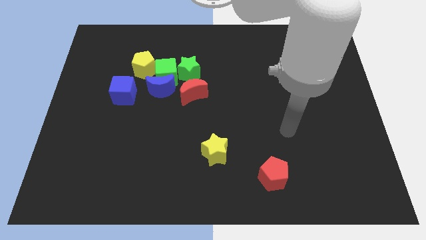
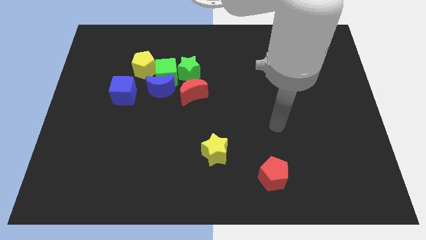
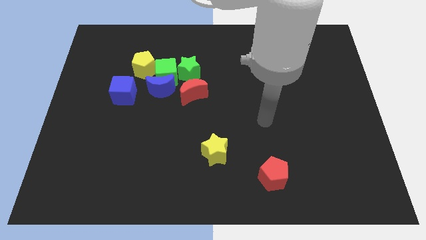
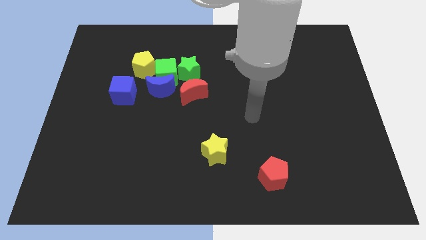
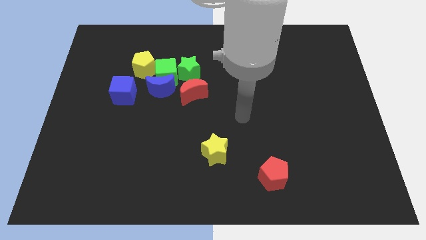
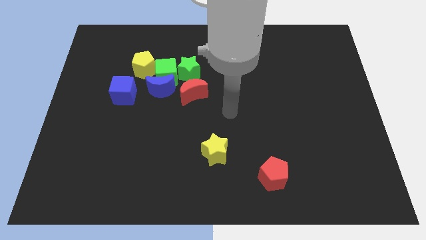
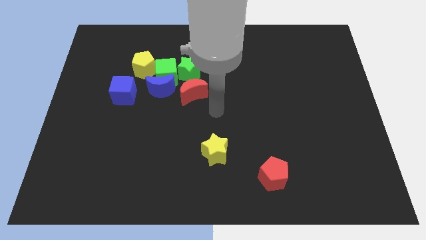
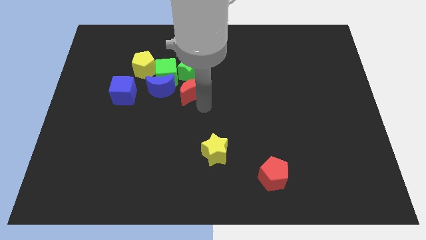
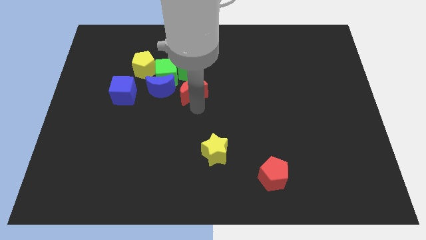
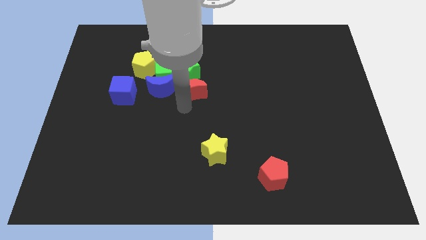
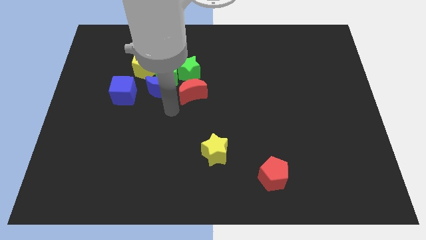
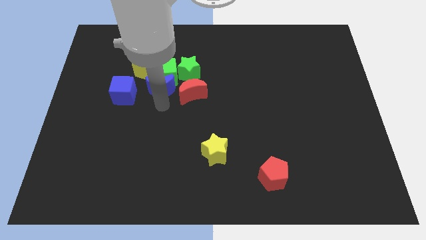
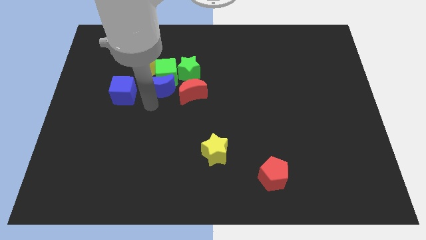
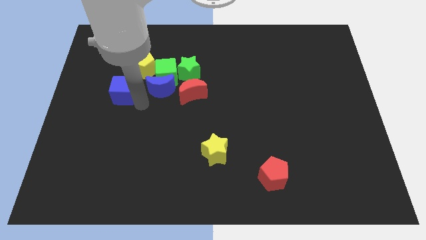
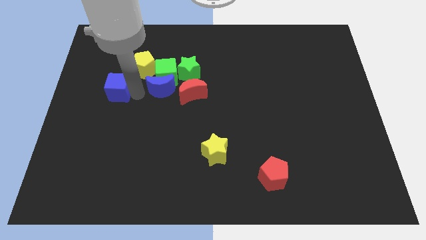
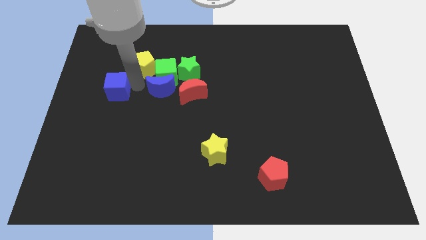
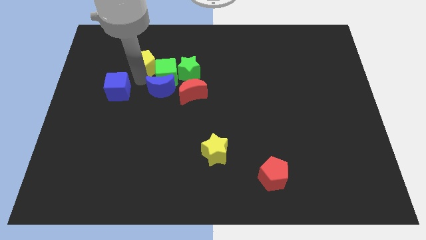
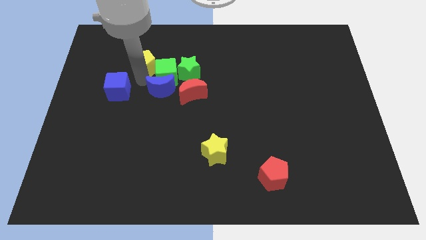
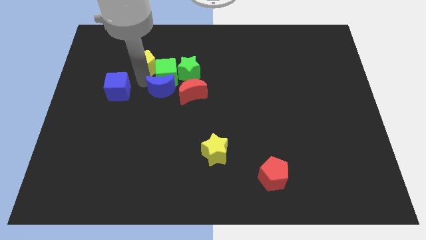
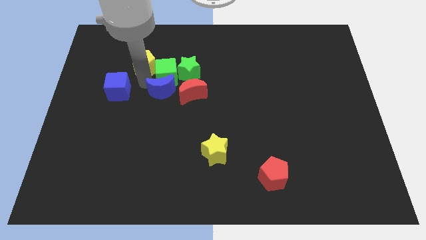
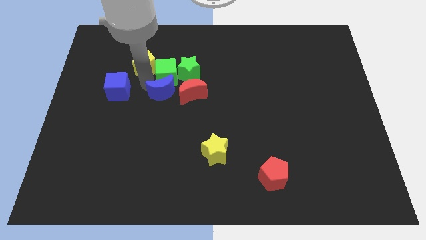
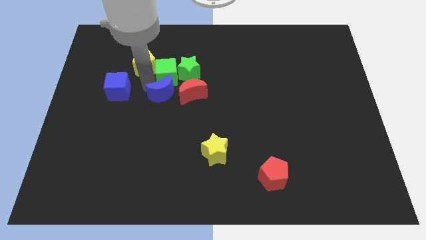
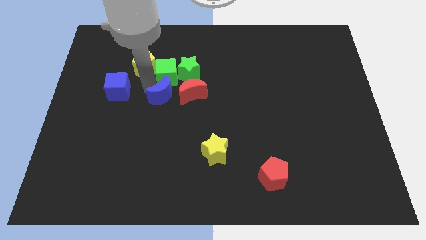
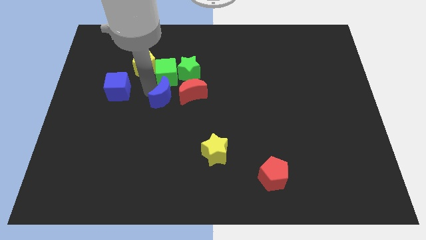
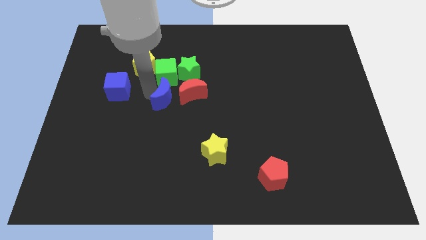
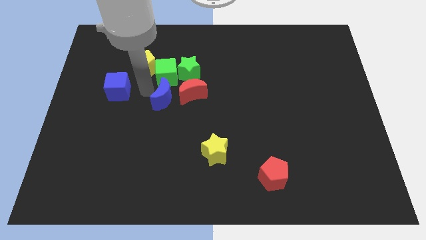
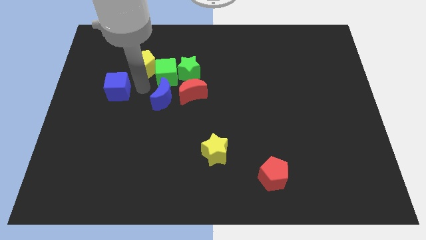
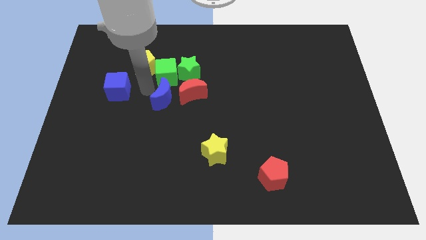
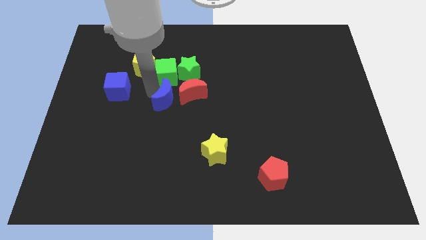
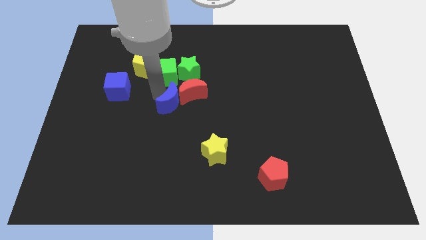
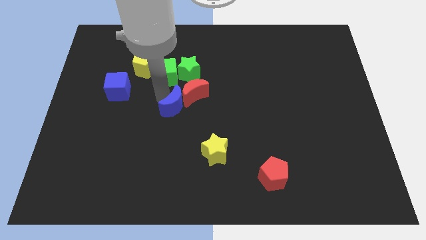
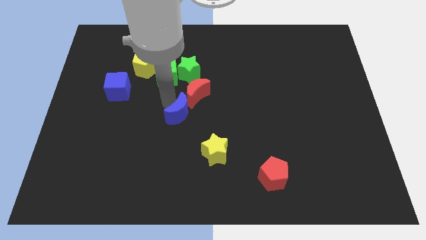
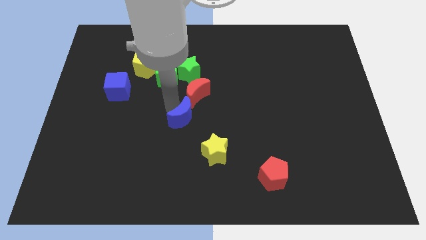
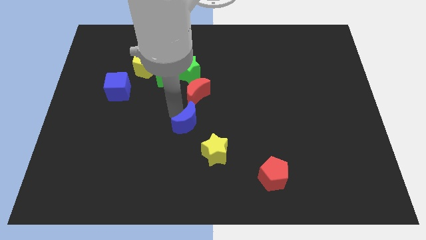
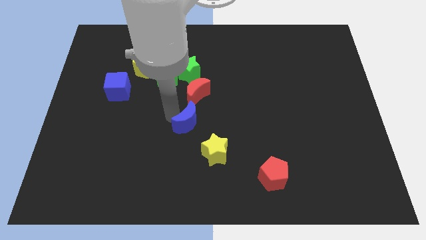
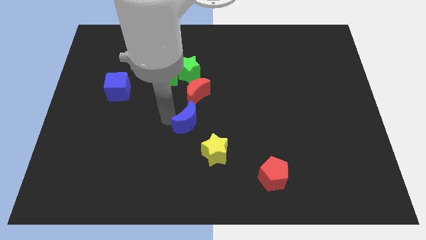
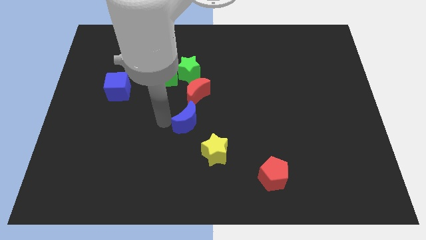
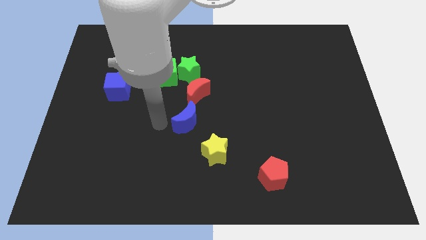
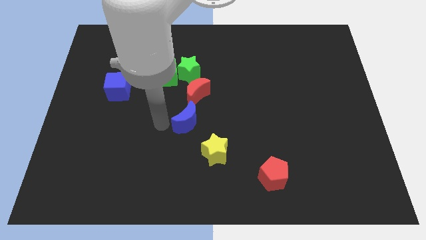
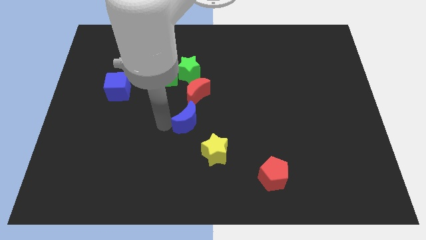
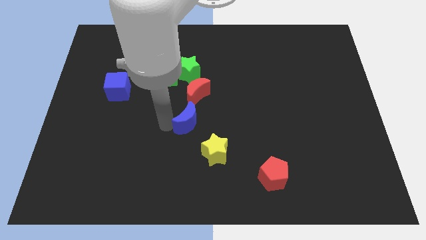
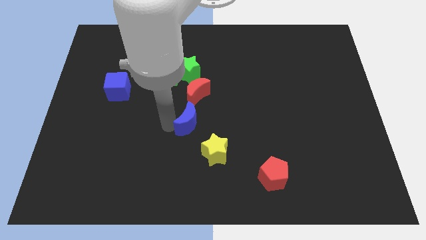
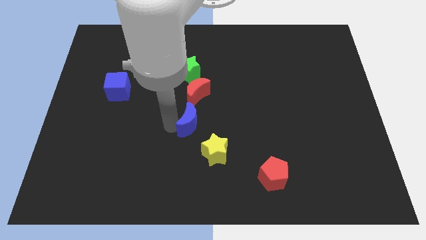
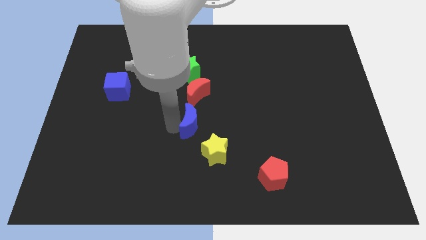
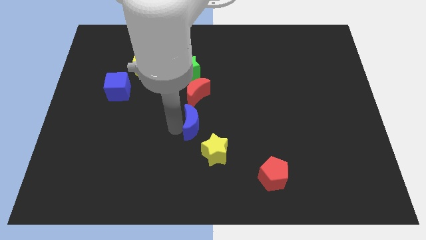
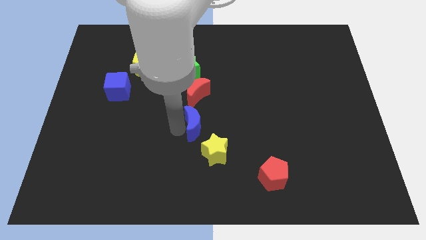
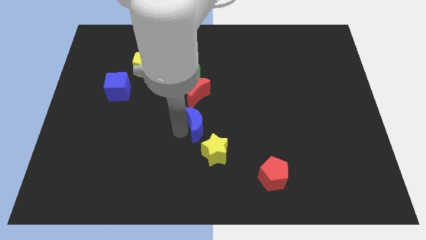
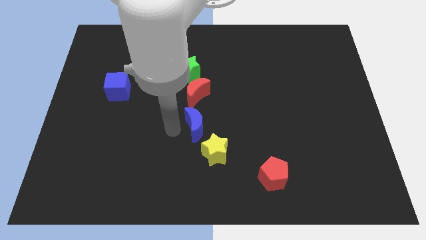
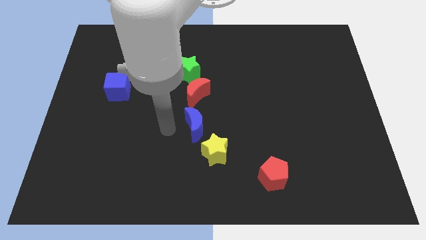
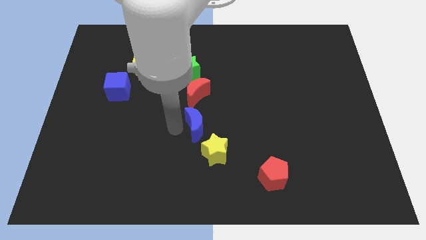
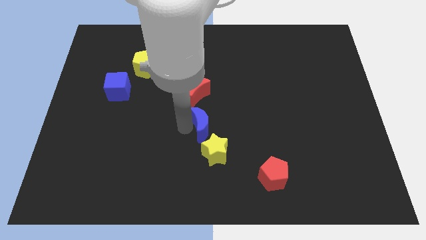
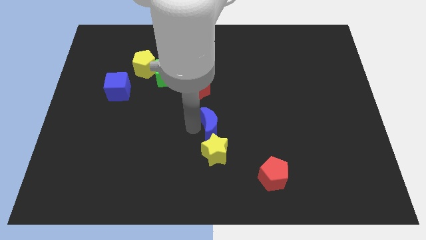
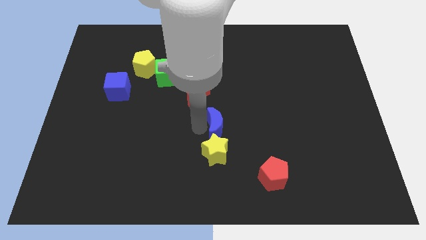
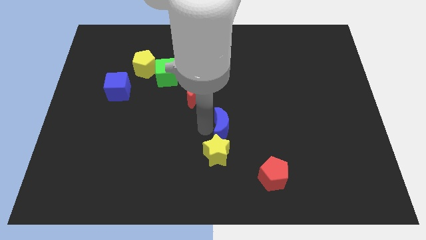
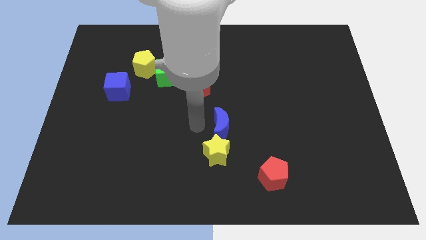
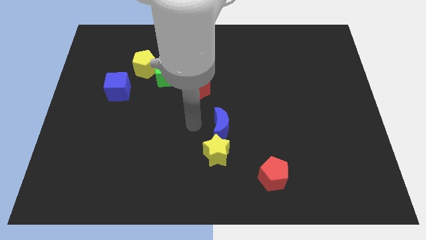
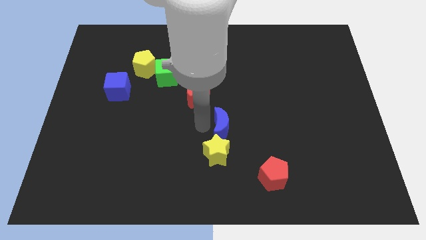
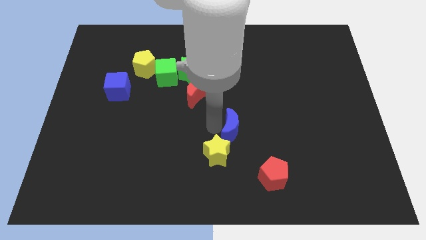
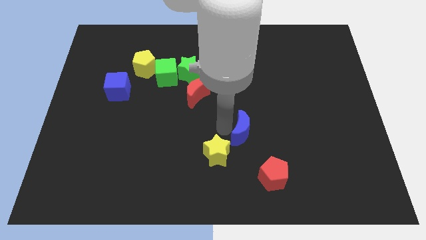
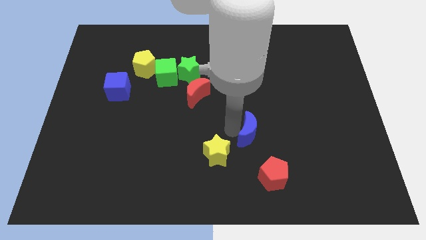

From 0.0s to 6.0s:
put the blue moon to the top of the red pentagon

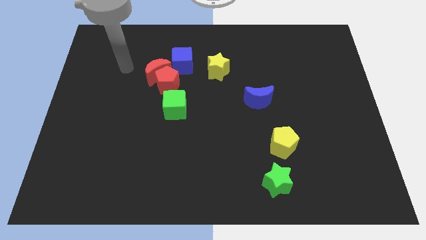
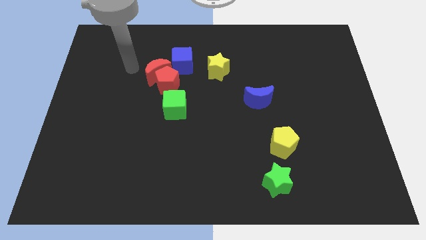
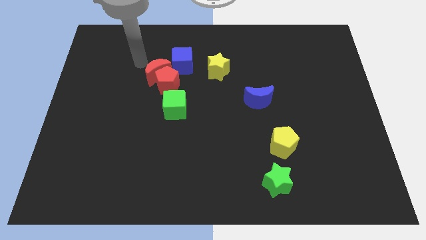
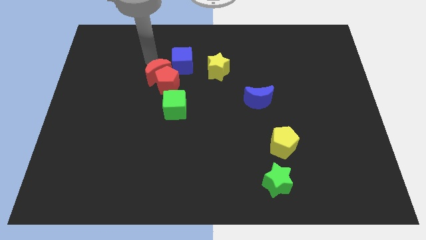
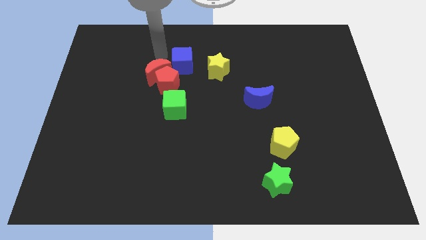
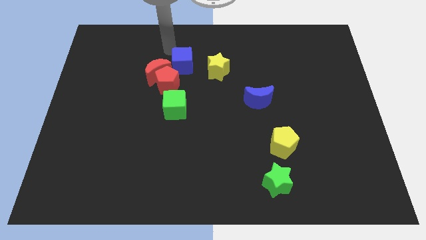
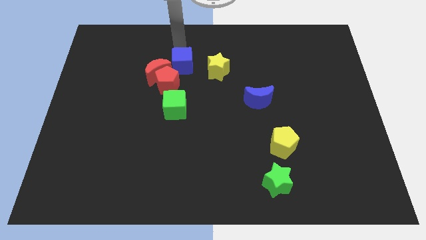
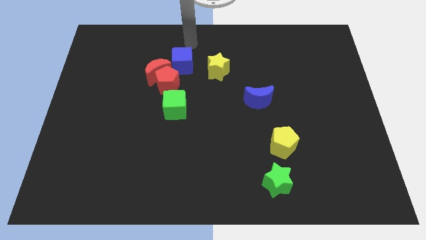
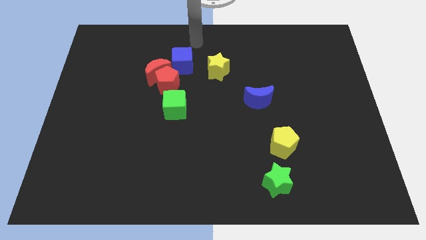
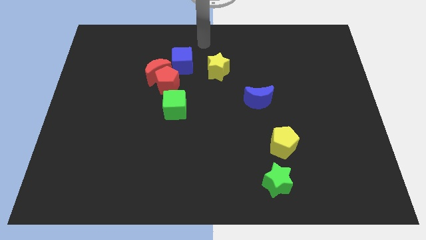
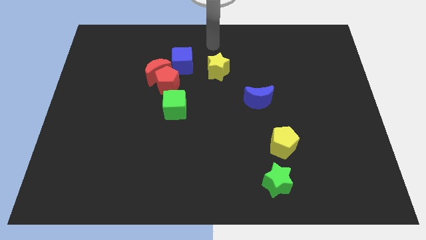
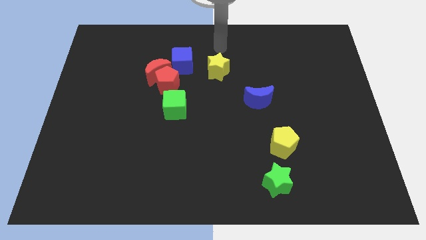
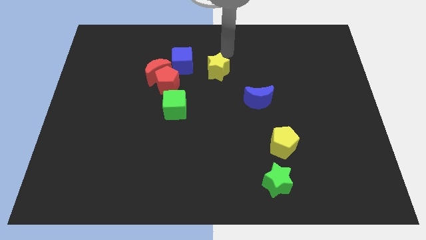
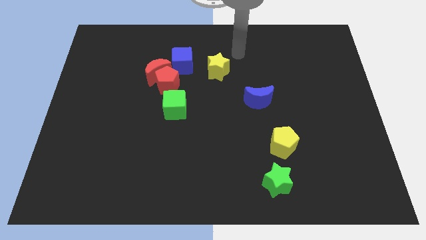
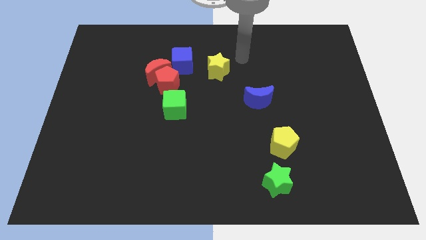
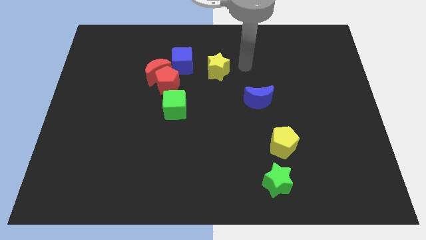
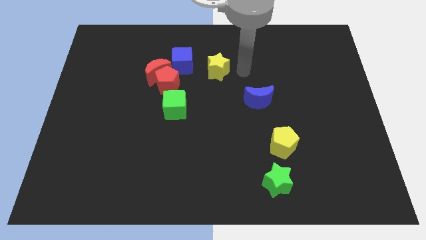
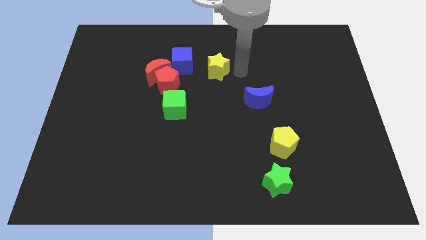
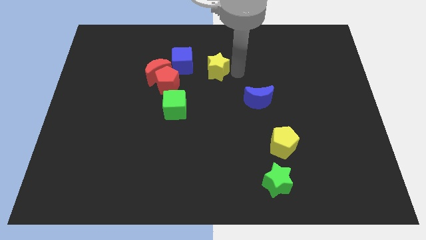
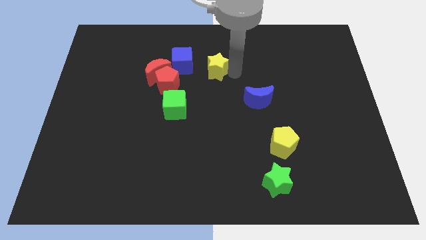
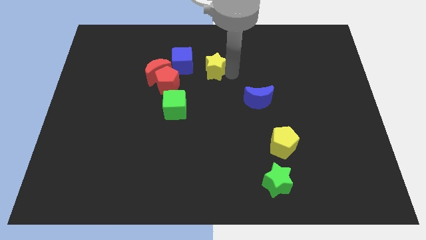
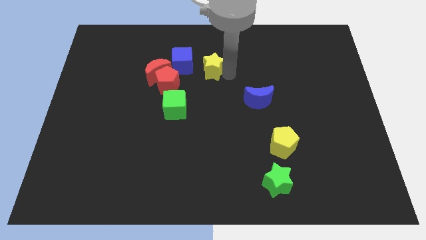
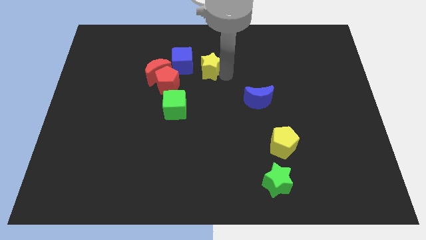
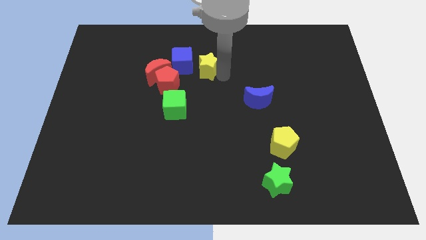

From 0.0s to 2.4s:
put the yellow star diagonally up and to the right of the red pentagon
